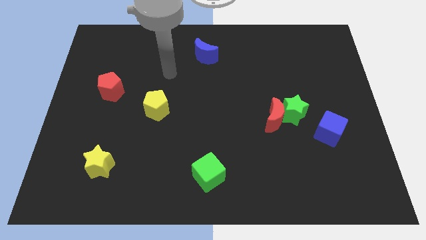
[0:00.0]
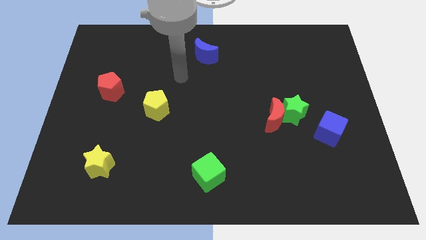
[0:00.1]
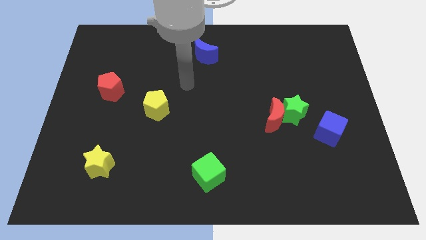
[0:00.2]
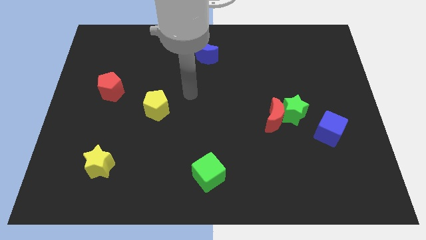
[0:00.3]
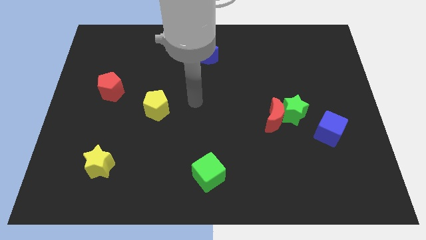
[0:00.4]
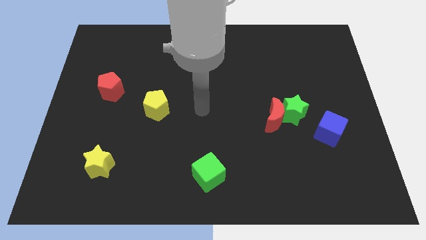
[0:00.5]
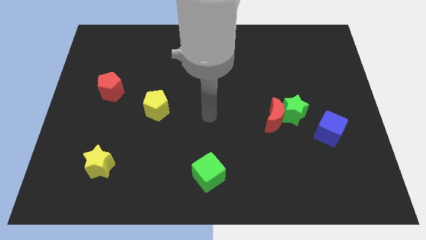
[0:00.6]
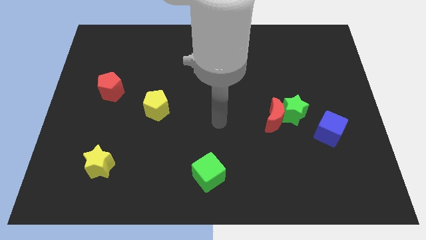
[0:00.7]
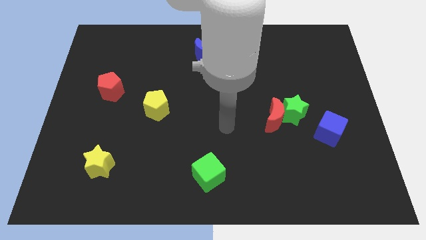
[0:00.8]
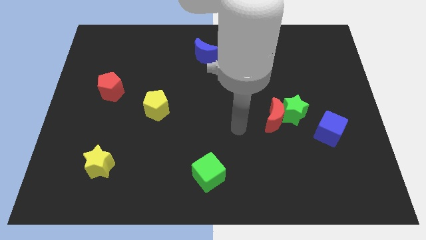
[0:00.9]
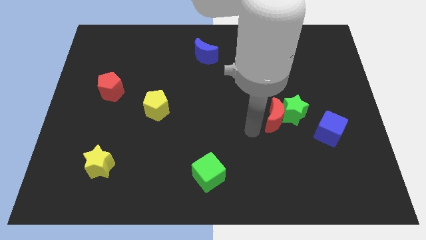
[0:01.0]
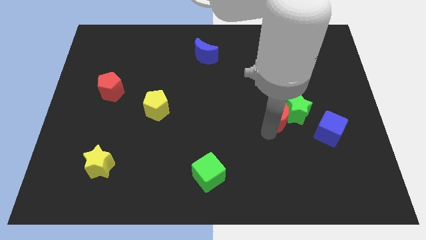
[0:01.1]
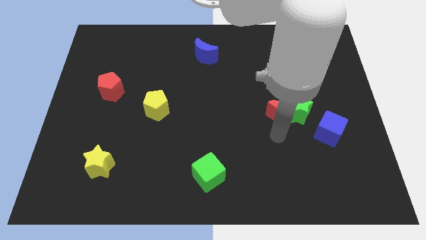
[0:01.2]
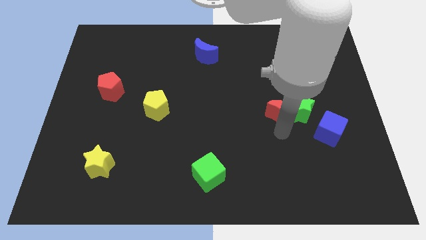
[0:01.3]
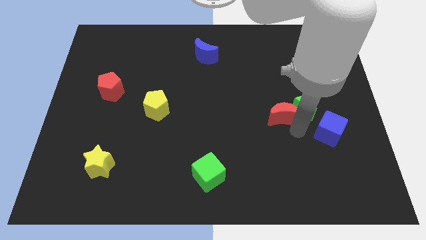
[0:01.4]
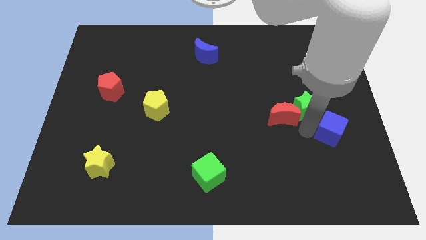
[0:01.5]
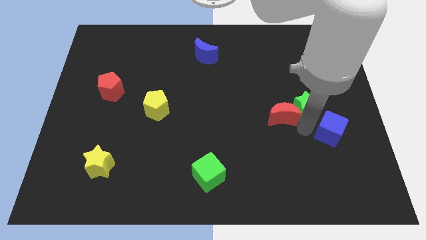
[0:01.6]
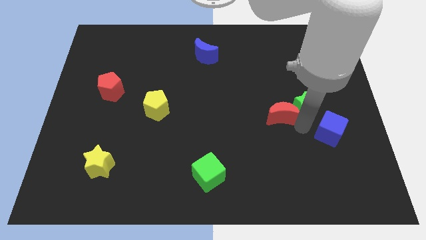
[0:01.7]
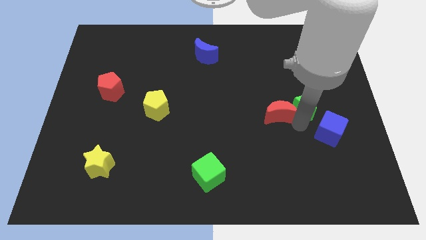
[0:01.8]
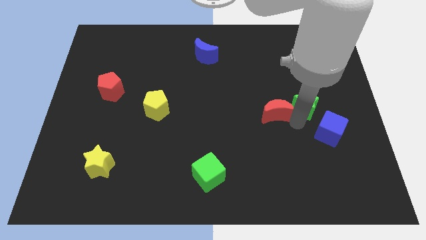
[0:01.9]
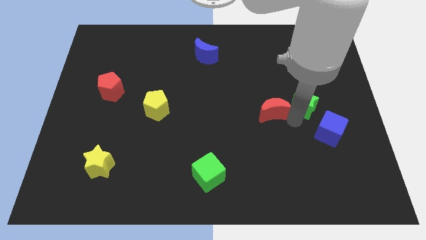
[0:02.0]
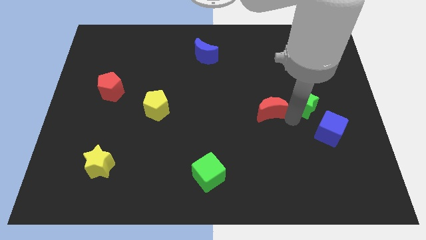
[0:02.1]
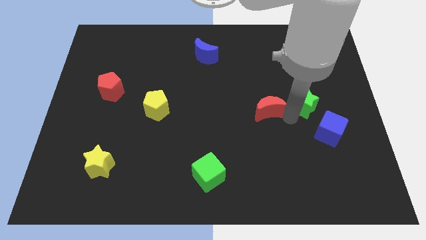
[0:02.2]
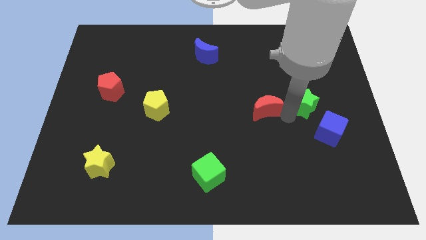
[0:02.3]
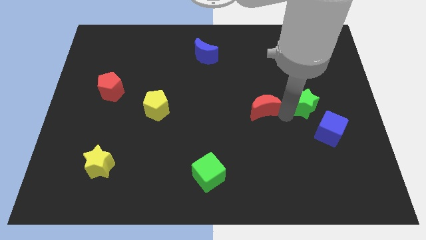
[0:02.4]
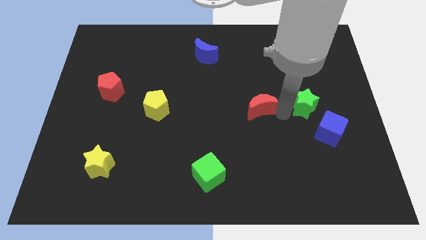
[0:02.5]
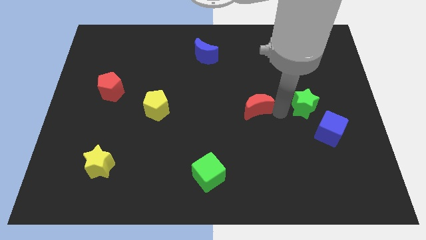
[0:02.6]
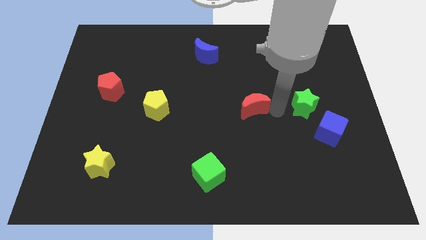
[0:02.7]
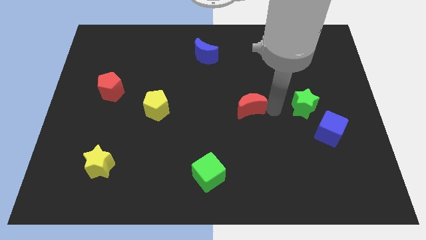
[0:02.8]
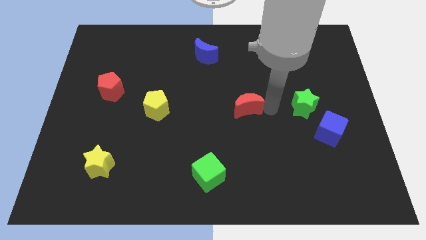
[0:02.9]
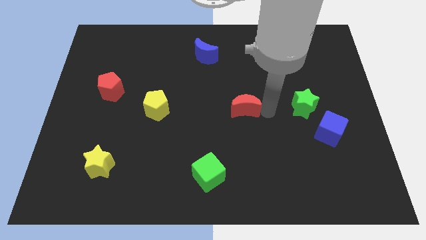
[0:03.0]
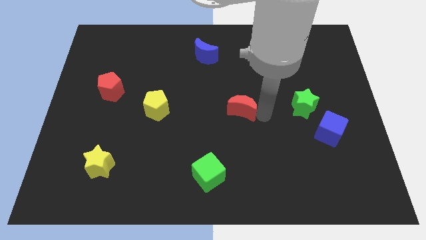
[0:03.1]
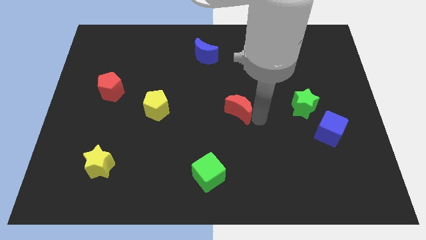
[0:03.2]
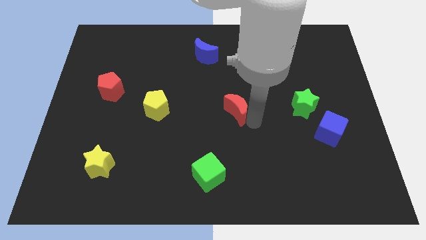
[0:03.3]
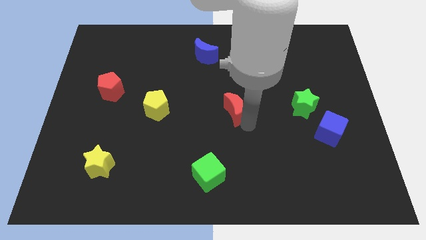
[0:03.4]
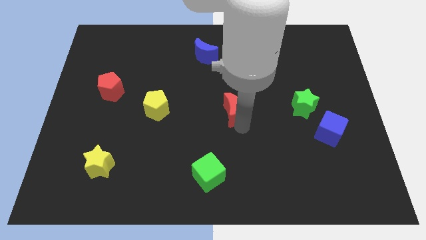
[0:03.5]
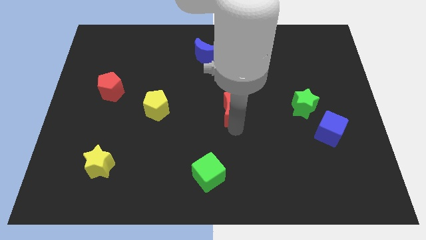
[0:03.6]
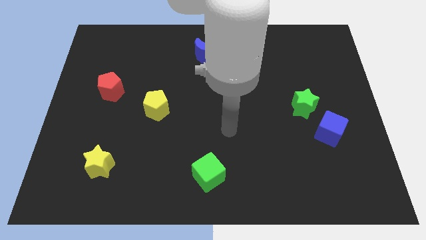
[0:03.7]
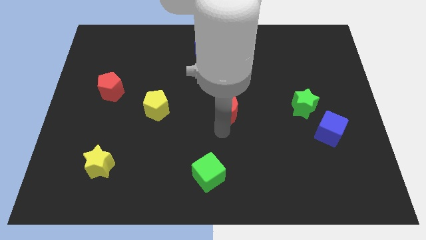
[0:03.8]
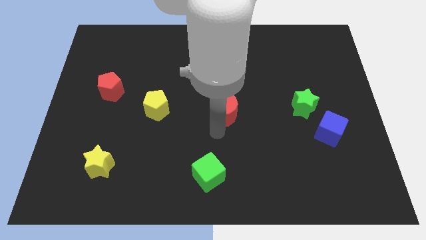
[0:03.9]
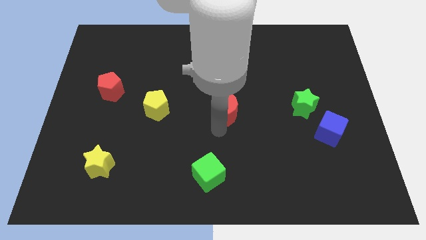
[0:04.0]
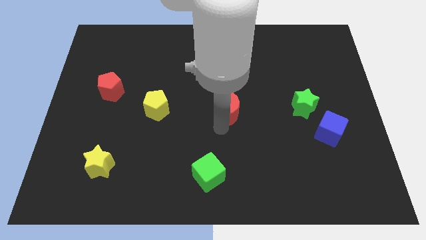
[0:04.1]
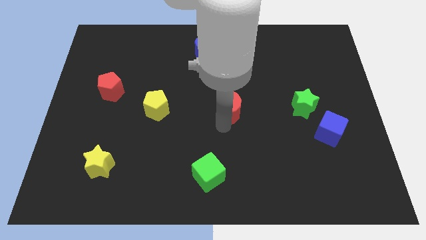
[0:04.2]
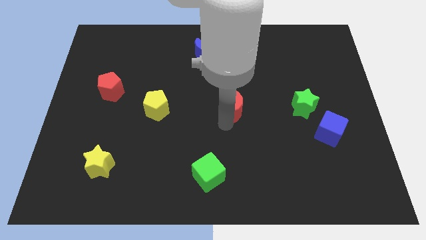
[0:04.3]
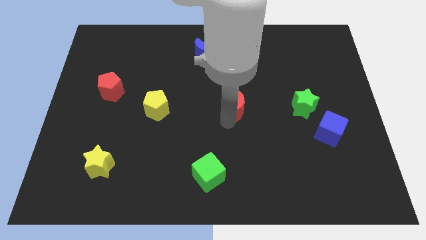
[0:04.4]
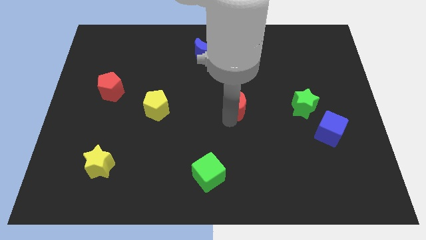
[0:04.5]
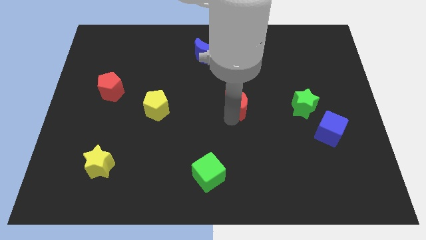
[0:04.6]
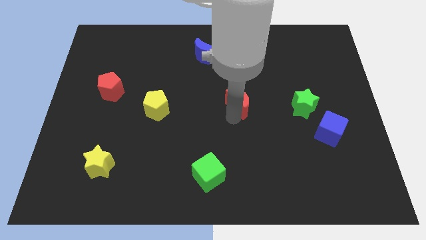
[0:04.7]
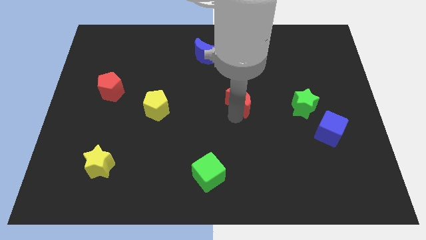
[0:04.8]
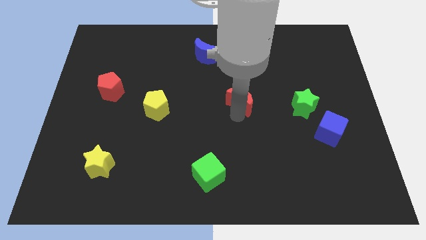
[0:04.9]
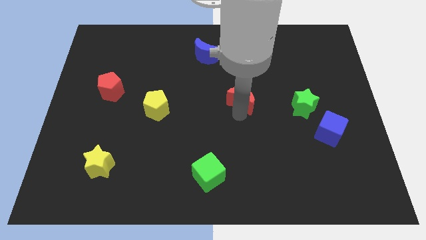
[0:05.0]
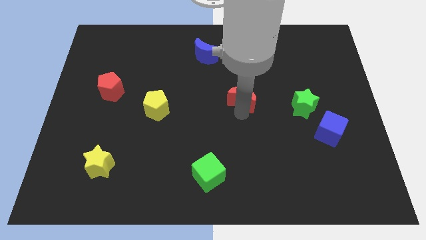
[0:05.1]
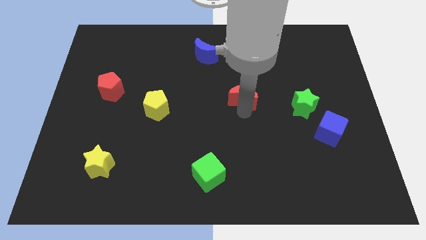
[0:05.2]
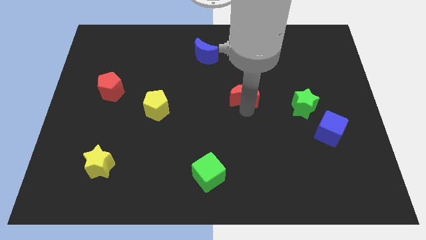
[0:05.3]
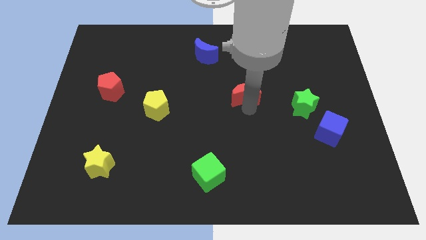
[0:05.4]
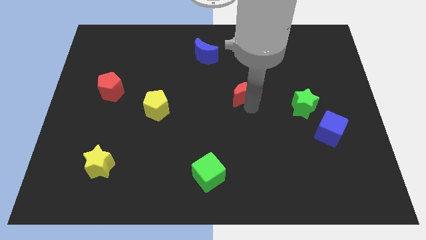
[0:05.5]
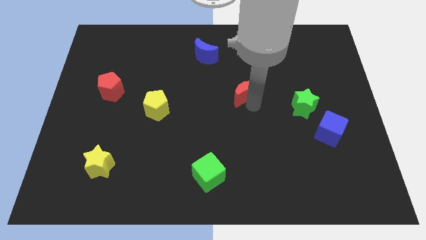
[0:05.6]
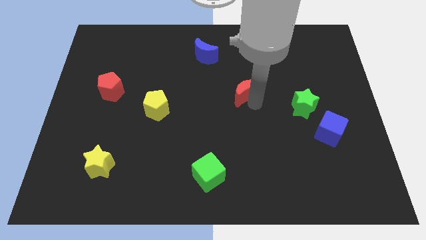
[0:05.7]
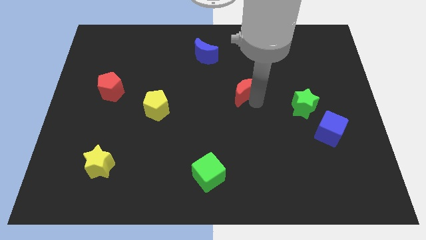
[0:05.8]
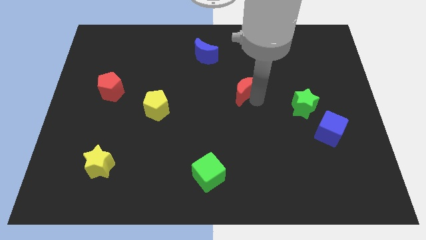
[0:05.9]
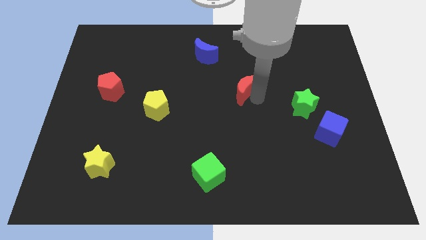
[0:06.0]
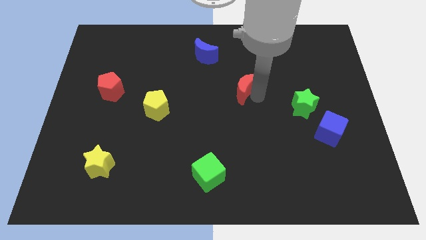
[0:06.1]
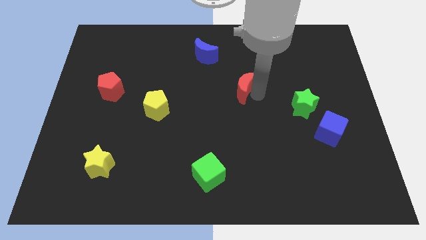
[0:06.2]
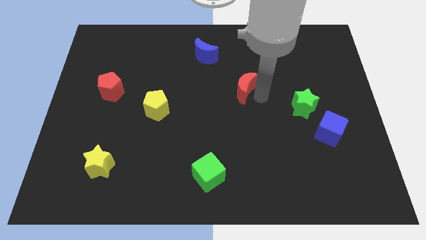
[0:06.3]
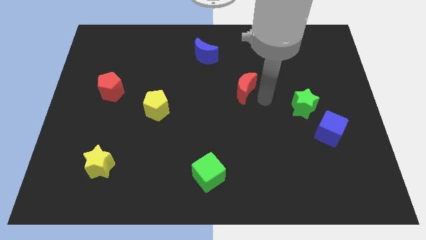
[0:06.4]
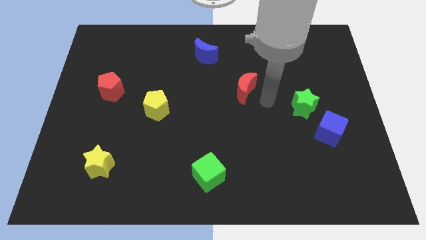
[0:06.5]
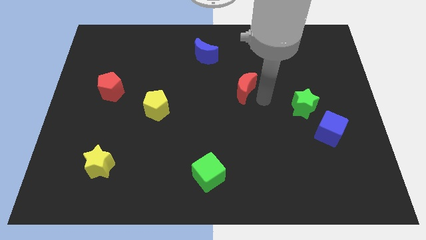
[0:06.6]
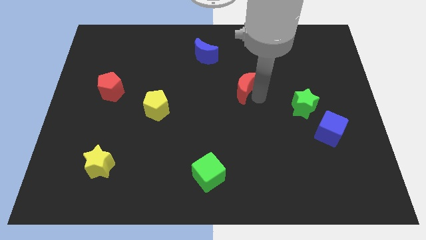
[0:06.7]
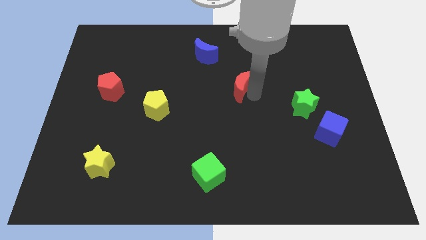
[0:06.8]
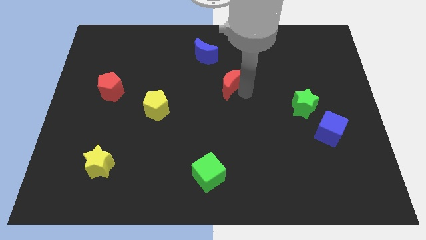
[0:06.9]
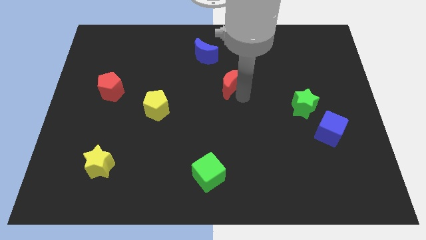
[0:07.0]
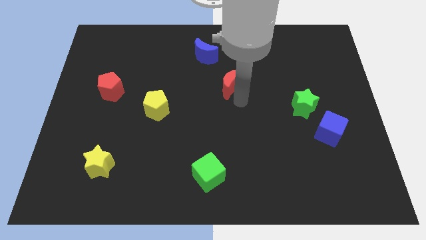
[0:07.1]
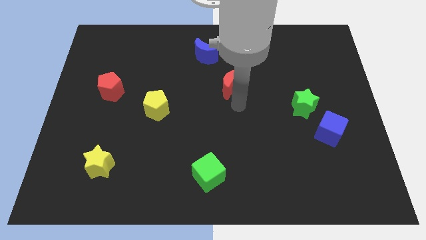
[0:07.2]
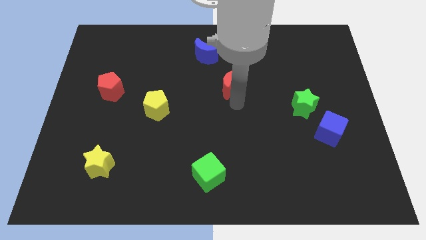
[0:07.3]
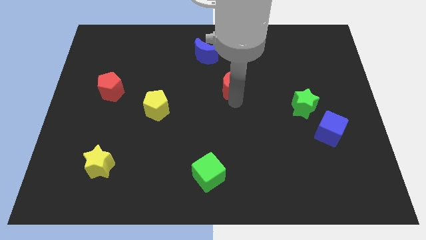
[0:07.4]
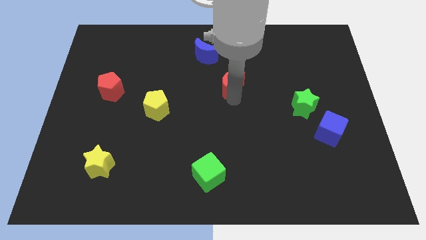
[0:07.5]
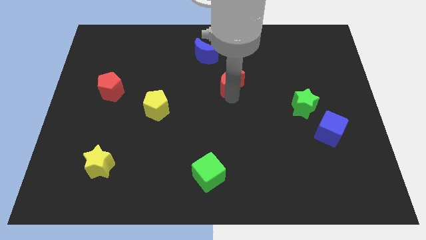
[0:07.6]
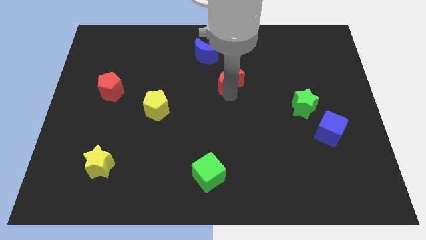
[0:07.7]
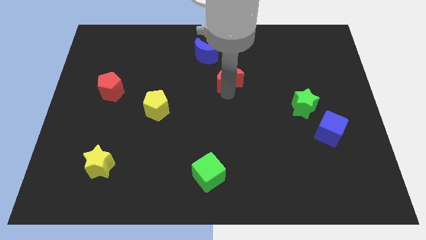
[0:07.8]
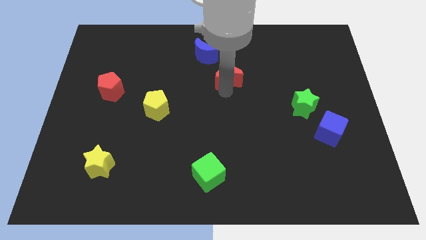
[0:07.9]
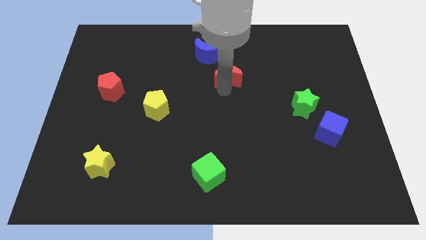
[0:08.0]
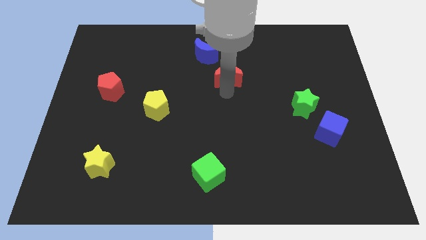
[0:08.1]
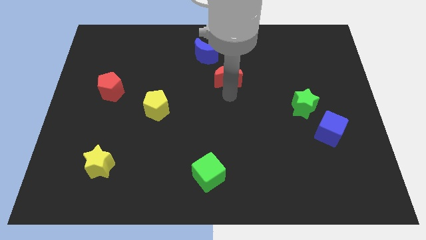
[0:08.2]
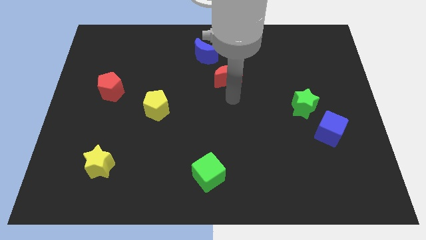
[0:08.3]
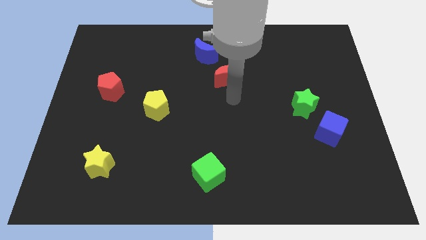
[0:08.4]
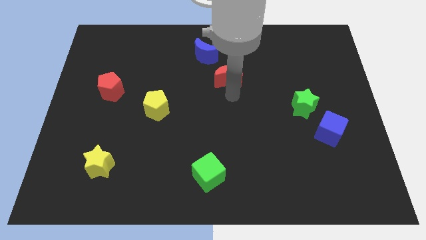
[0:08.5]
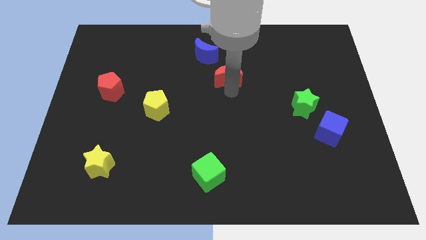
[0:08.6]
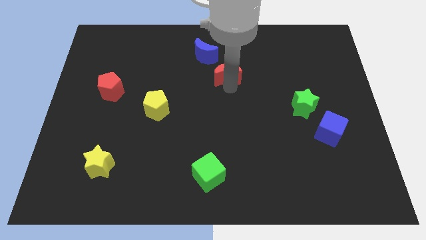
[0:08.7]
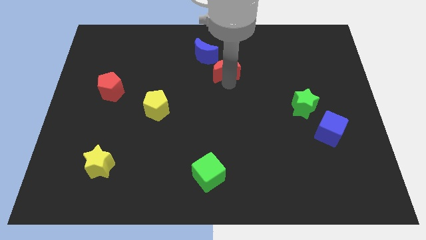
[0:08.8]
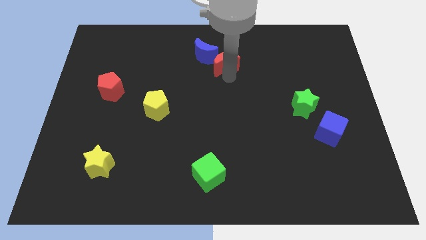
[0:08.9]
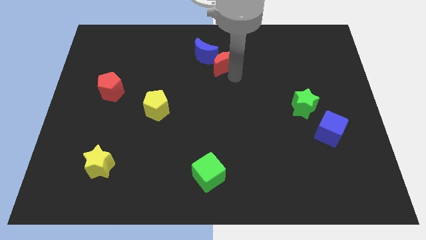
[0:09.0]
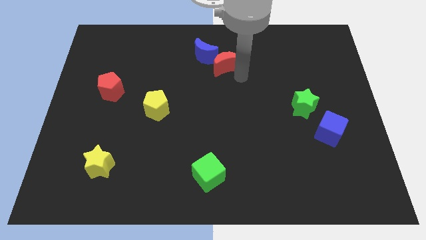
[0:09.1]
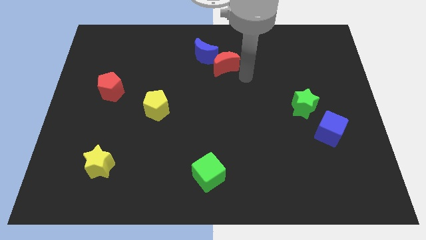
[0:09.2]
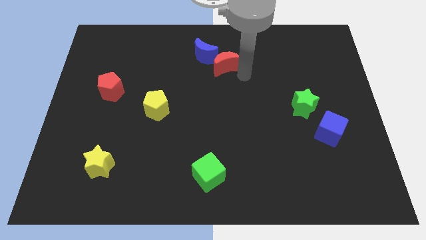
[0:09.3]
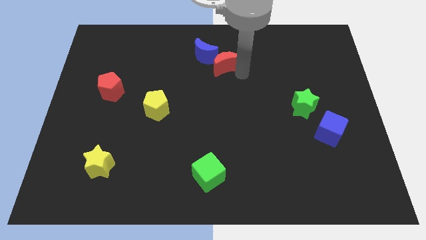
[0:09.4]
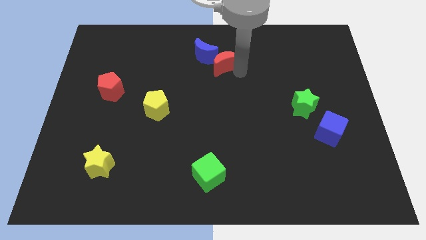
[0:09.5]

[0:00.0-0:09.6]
slide the red moon close to the blue moon
